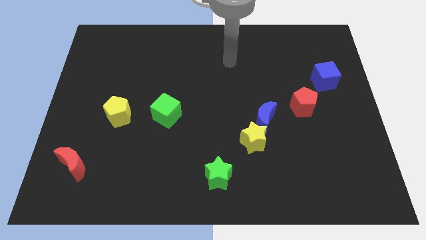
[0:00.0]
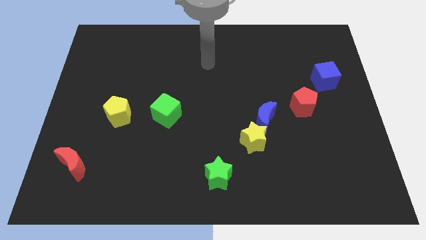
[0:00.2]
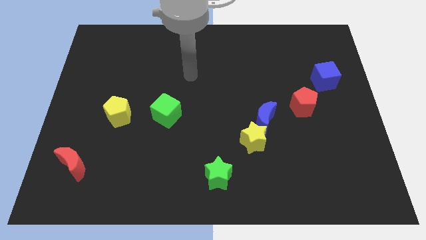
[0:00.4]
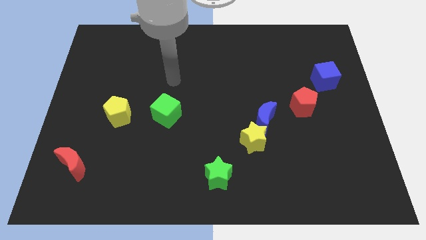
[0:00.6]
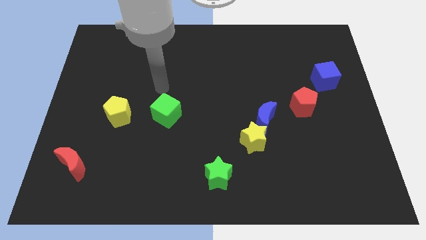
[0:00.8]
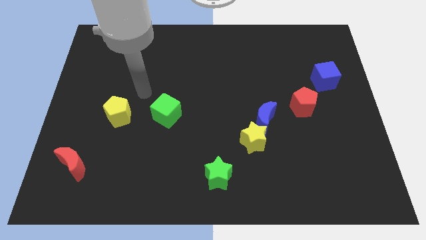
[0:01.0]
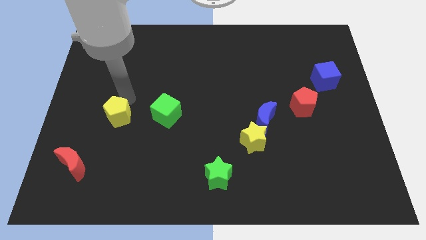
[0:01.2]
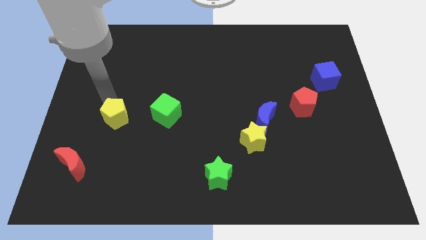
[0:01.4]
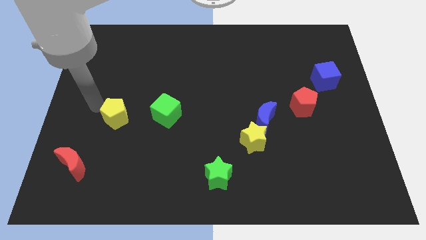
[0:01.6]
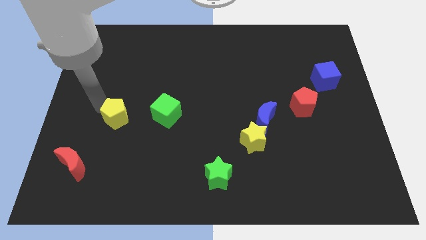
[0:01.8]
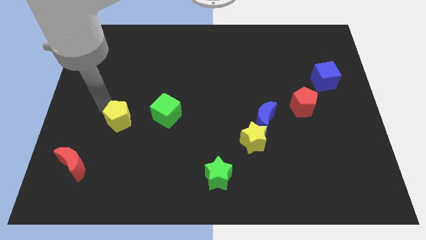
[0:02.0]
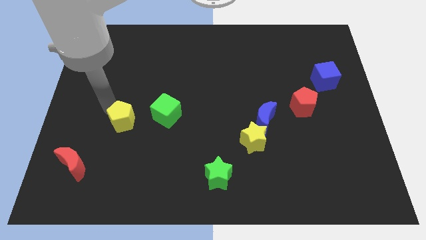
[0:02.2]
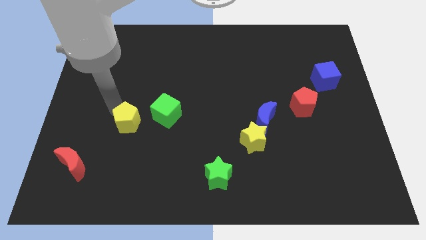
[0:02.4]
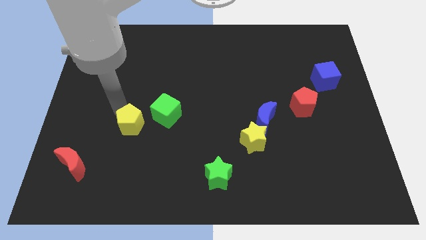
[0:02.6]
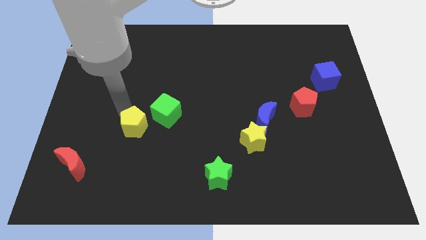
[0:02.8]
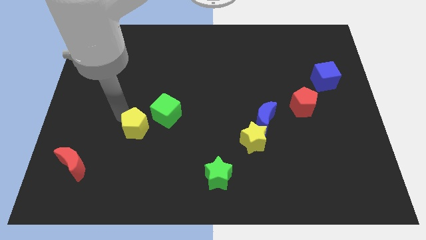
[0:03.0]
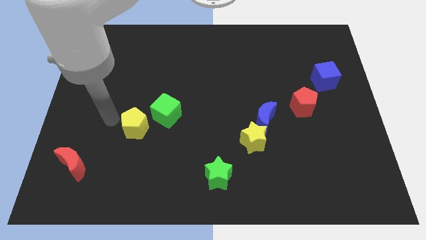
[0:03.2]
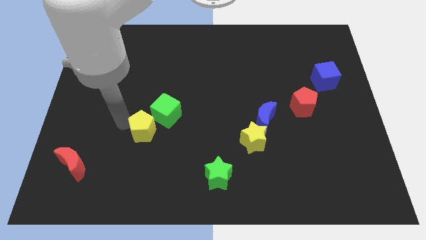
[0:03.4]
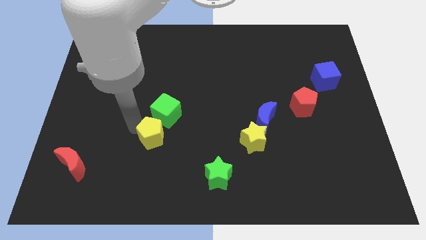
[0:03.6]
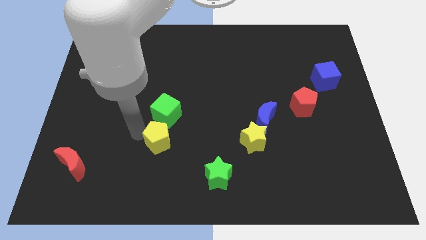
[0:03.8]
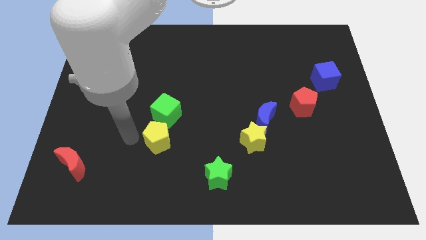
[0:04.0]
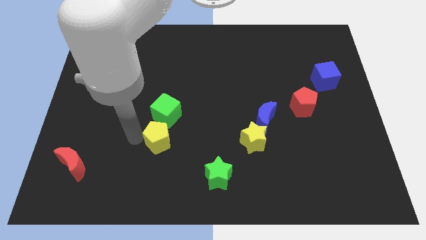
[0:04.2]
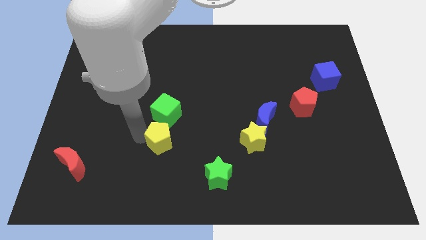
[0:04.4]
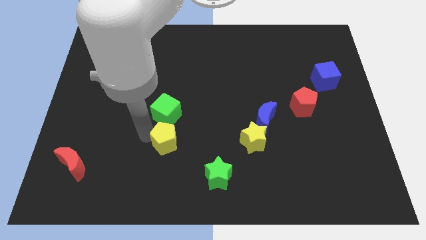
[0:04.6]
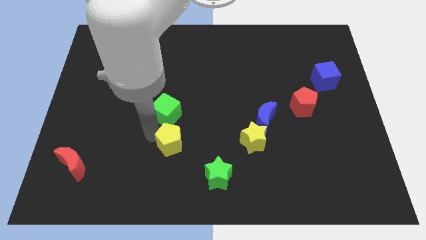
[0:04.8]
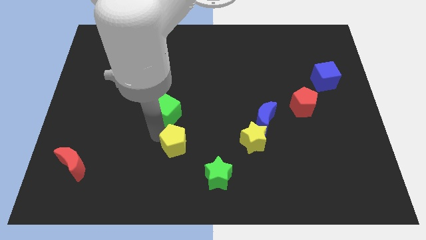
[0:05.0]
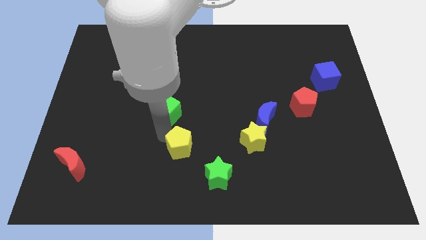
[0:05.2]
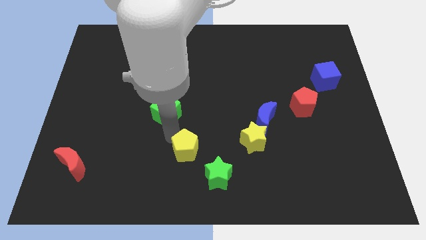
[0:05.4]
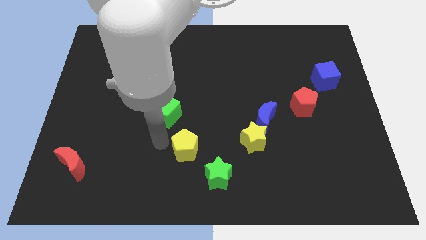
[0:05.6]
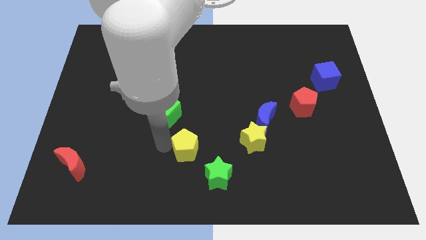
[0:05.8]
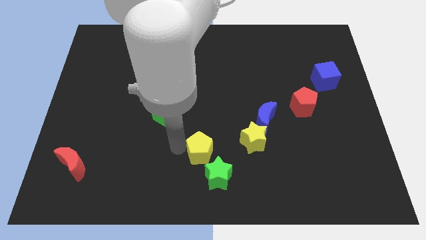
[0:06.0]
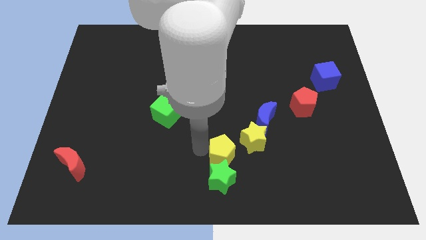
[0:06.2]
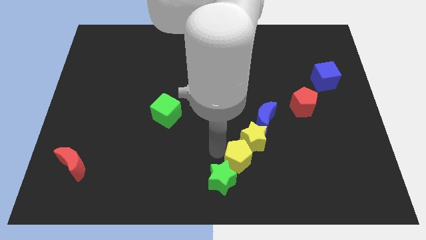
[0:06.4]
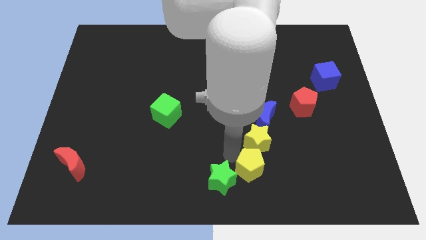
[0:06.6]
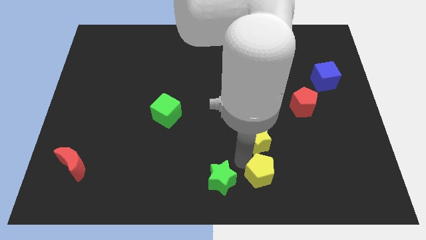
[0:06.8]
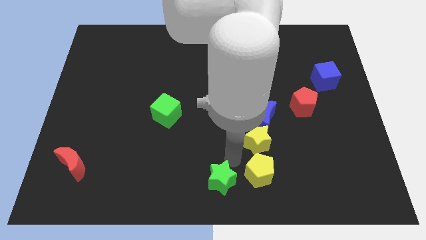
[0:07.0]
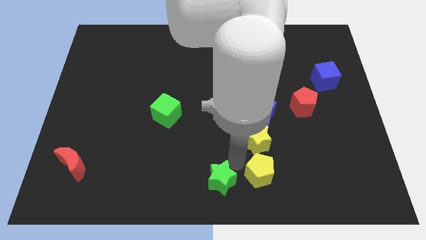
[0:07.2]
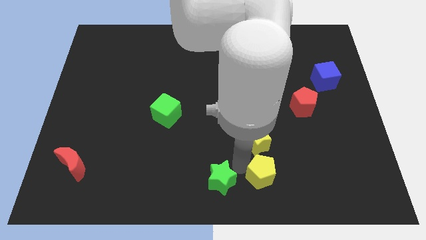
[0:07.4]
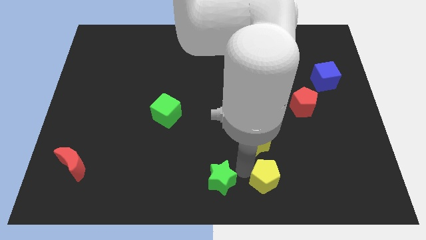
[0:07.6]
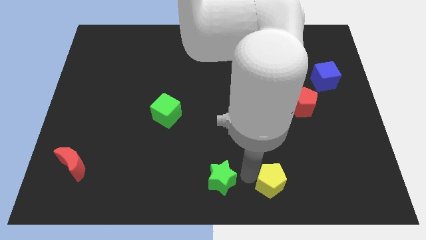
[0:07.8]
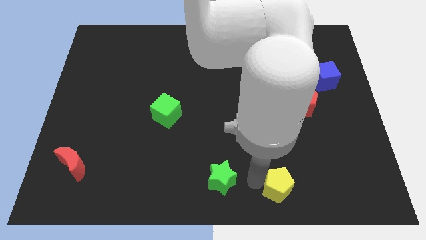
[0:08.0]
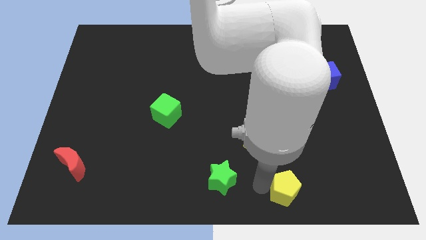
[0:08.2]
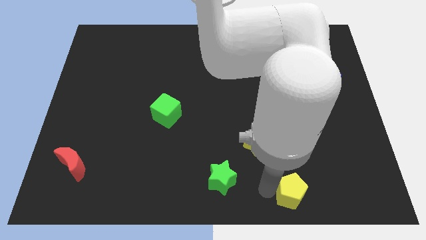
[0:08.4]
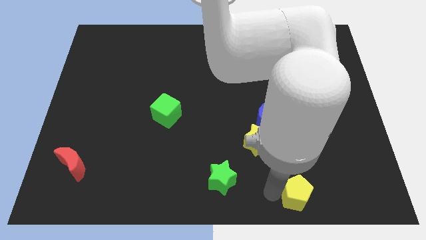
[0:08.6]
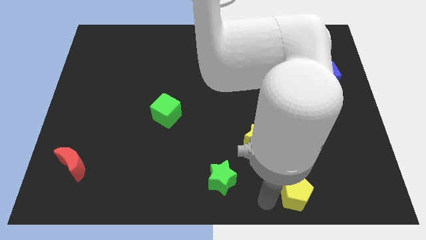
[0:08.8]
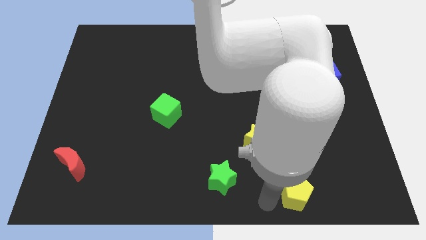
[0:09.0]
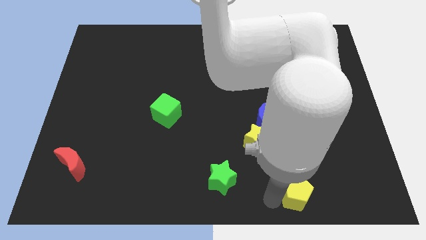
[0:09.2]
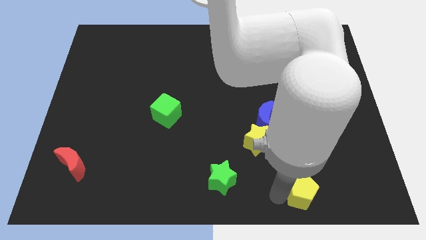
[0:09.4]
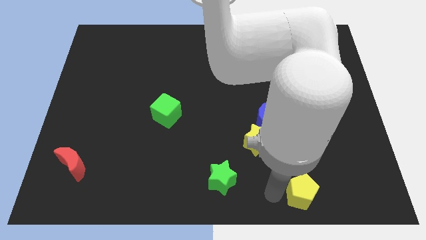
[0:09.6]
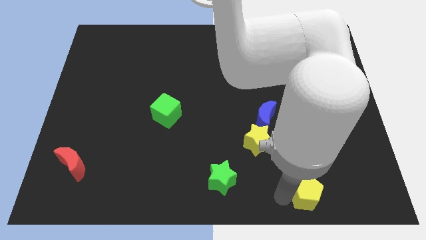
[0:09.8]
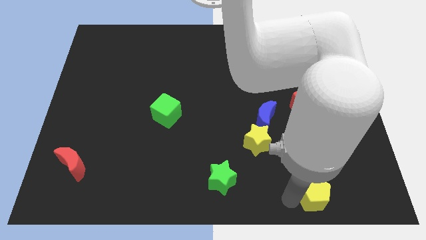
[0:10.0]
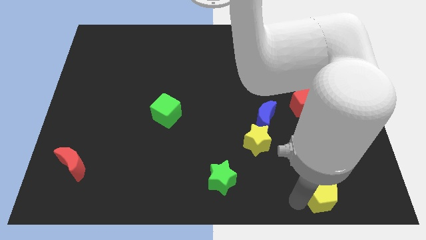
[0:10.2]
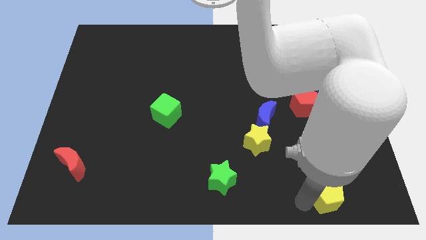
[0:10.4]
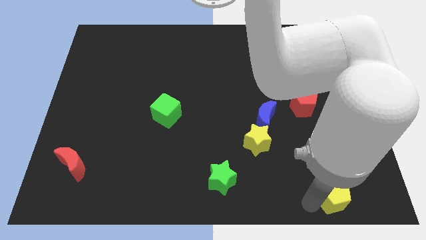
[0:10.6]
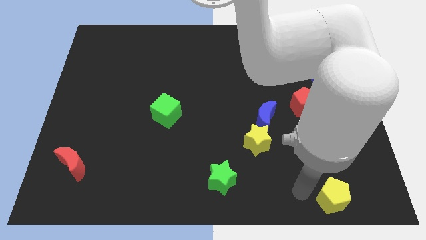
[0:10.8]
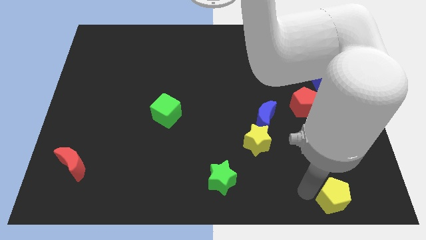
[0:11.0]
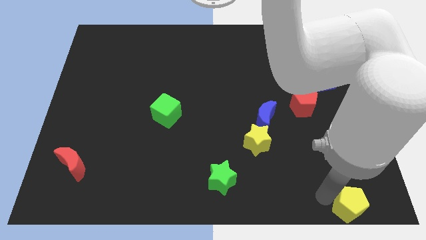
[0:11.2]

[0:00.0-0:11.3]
move the yellow pentagon to the lower right corner

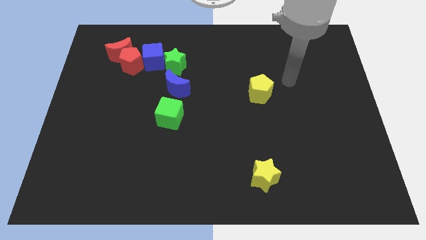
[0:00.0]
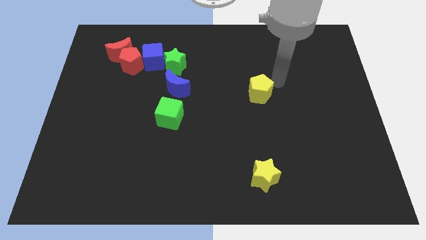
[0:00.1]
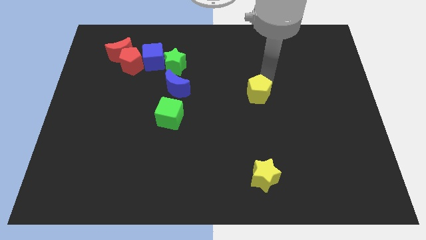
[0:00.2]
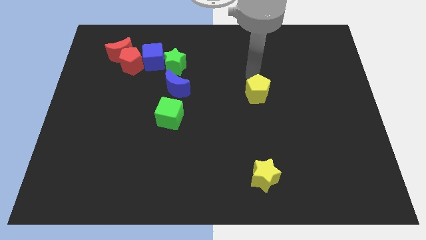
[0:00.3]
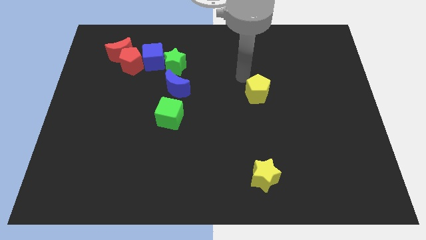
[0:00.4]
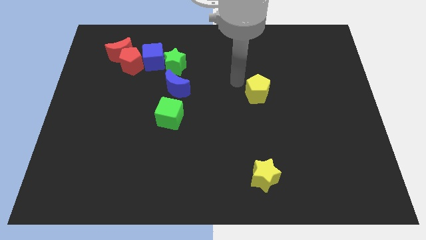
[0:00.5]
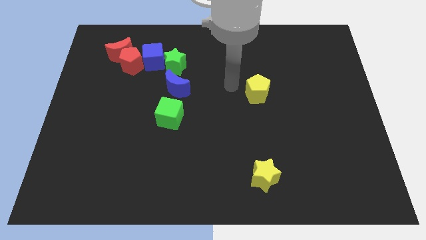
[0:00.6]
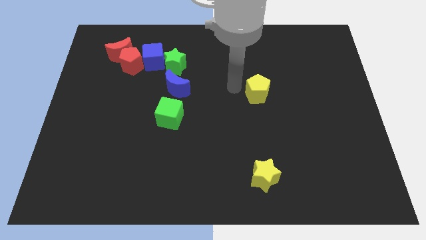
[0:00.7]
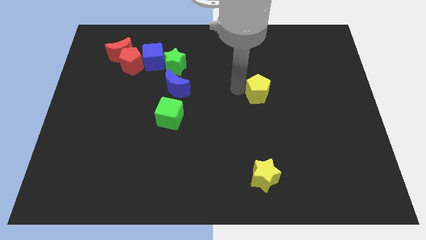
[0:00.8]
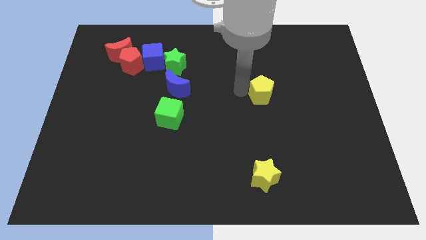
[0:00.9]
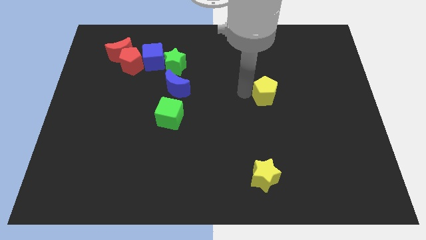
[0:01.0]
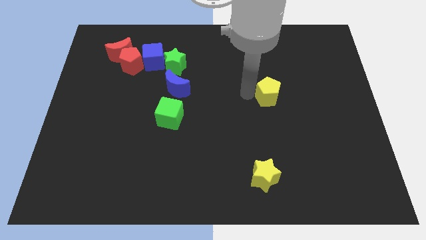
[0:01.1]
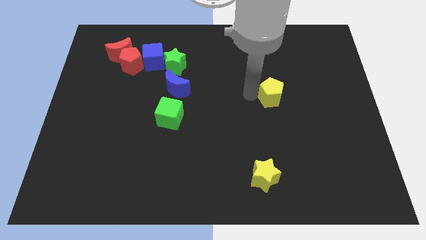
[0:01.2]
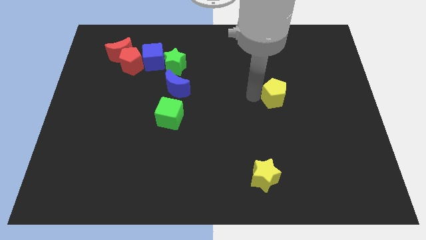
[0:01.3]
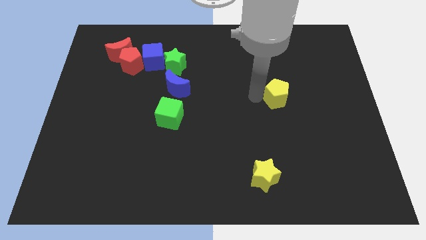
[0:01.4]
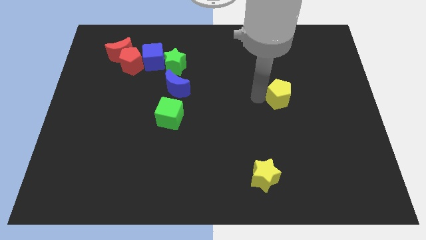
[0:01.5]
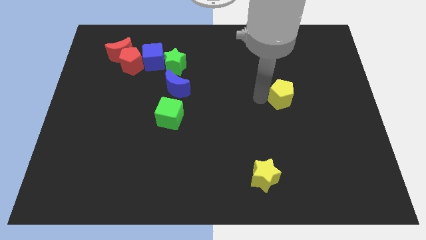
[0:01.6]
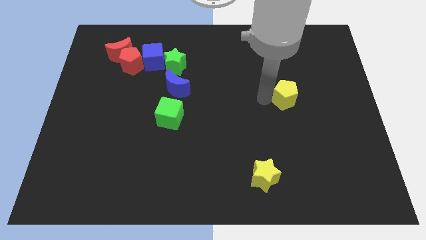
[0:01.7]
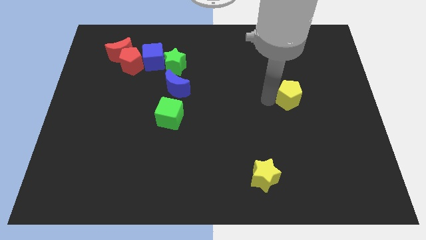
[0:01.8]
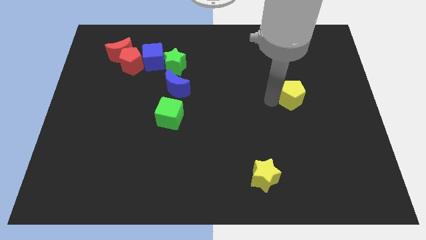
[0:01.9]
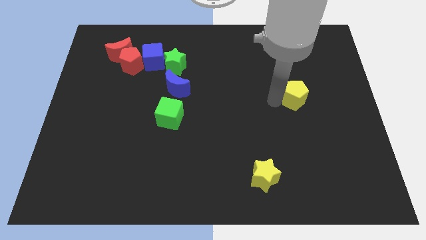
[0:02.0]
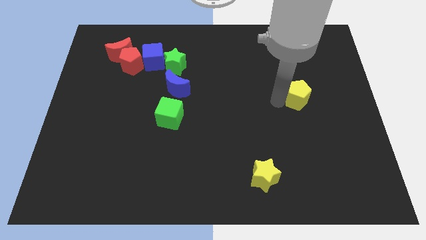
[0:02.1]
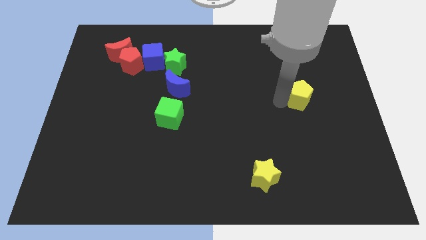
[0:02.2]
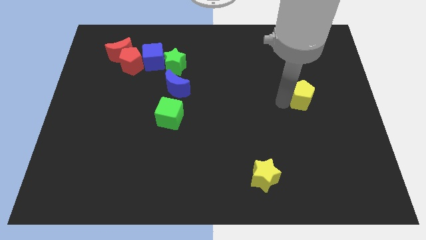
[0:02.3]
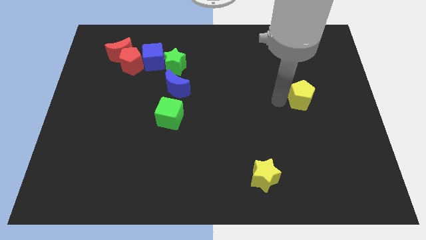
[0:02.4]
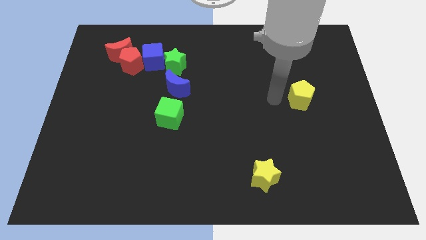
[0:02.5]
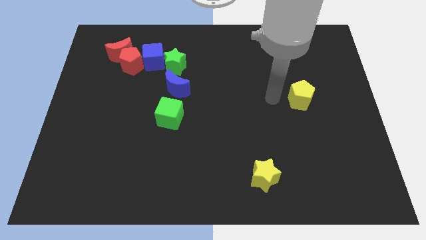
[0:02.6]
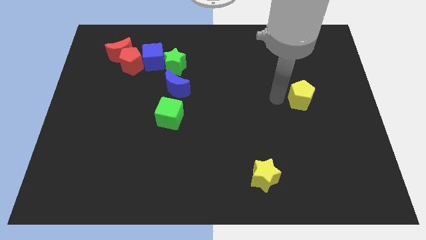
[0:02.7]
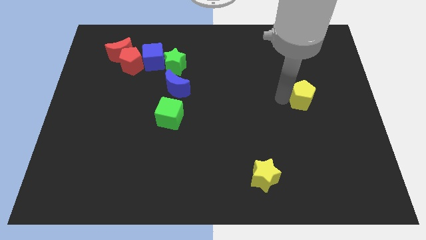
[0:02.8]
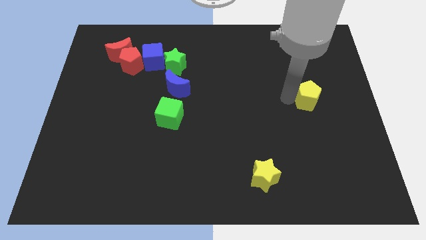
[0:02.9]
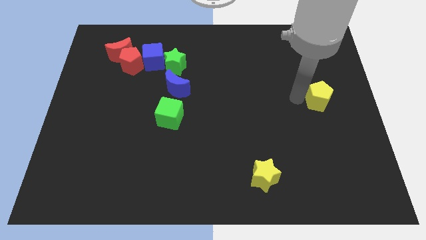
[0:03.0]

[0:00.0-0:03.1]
move the yellow pentagon to the right side
